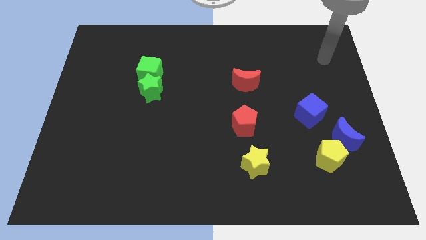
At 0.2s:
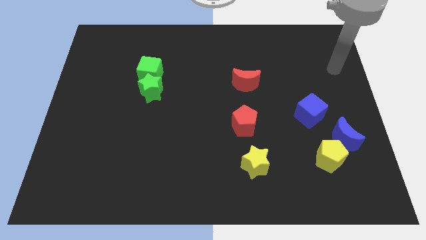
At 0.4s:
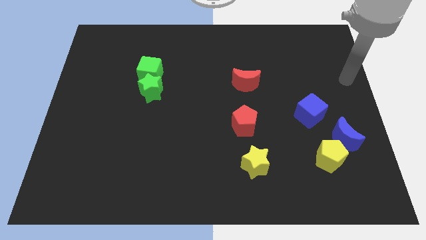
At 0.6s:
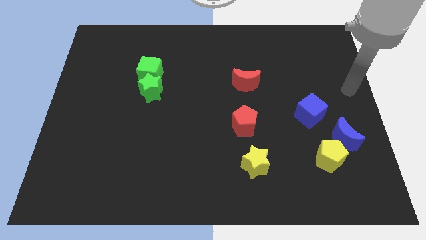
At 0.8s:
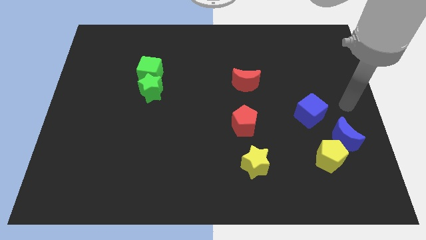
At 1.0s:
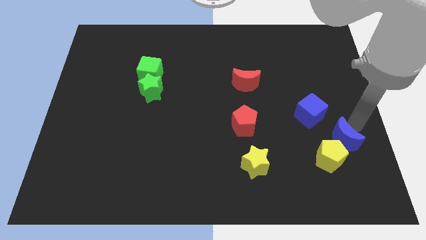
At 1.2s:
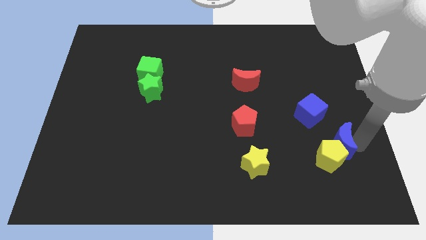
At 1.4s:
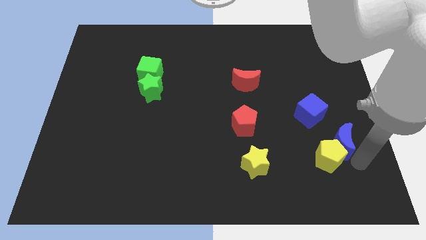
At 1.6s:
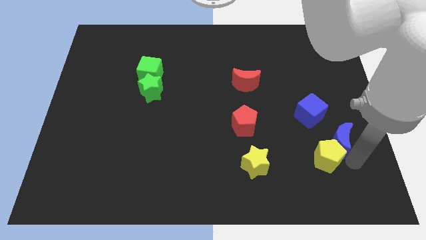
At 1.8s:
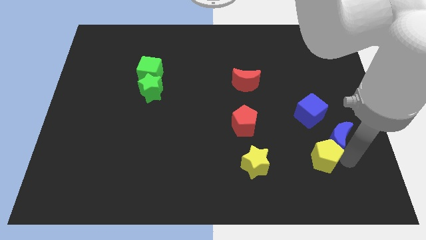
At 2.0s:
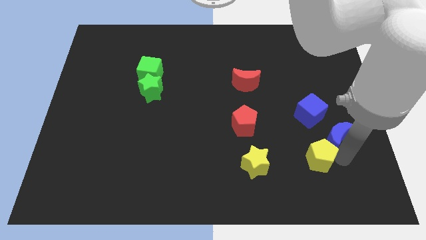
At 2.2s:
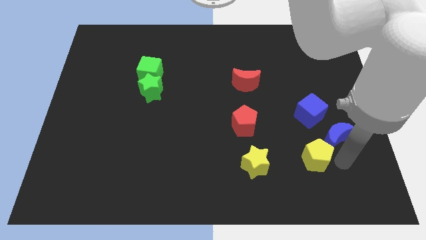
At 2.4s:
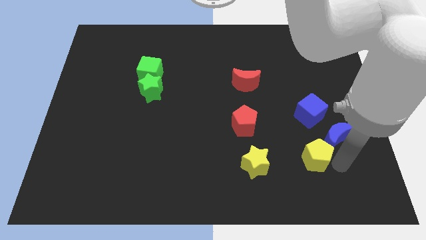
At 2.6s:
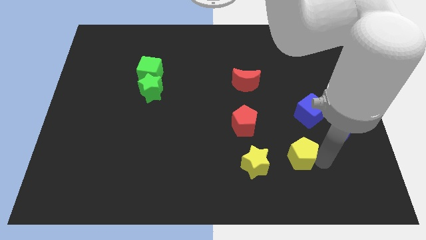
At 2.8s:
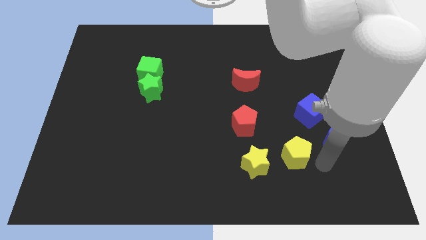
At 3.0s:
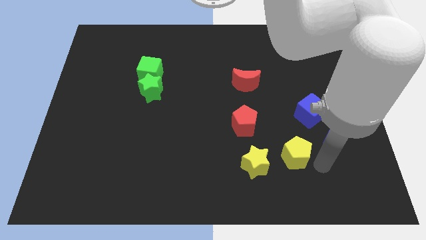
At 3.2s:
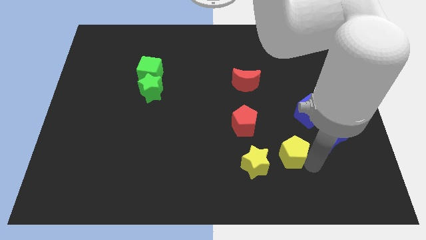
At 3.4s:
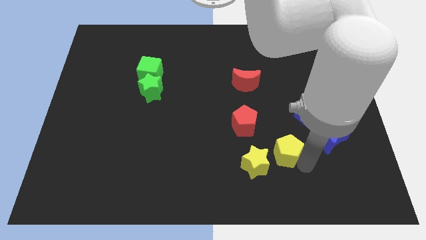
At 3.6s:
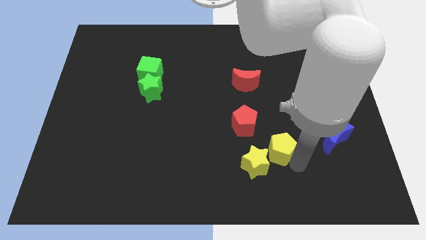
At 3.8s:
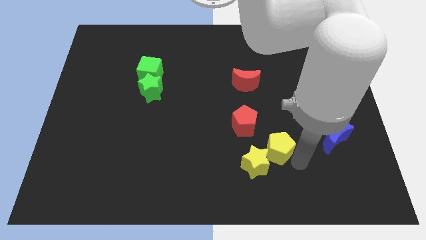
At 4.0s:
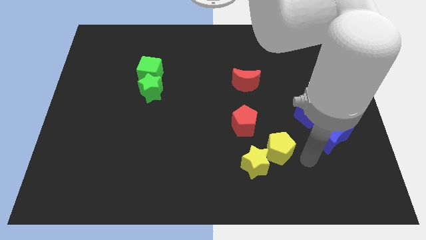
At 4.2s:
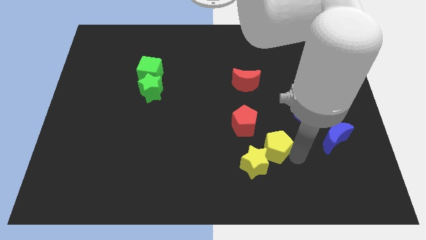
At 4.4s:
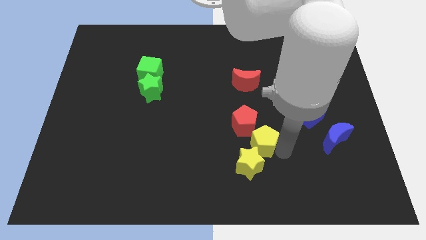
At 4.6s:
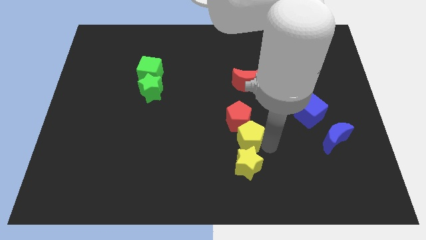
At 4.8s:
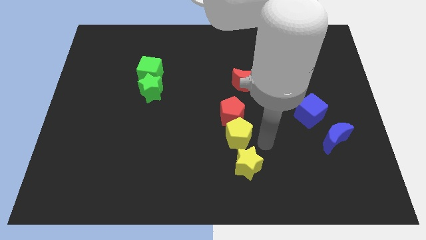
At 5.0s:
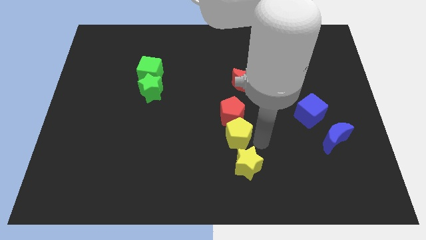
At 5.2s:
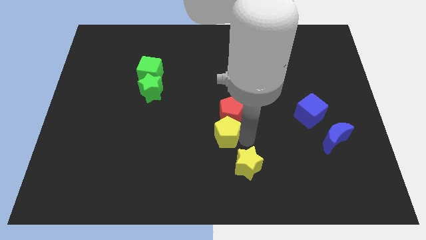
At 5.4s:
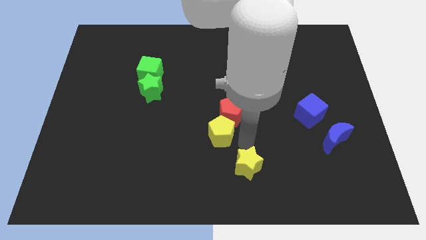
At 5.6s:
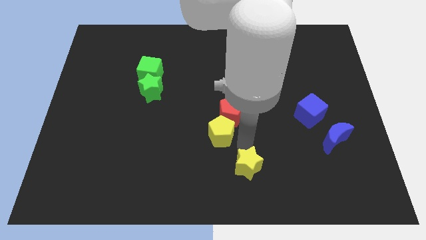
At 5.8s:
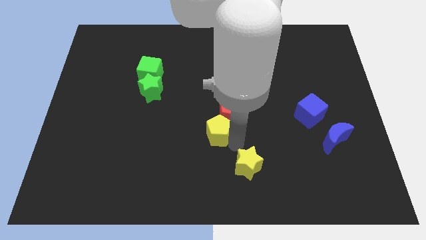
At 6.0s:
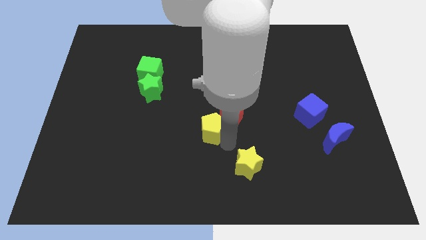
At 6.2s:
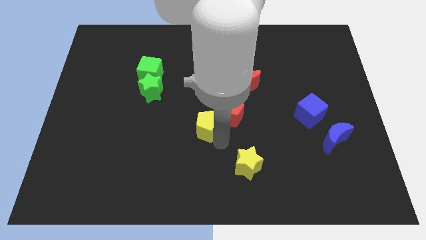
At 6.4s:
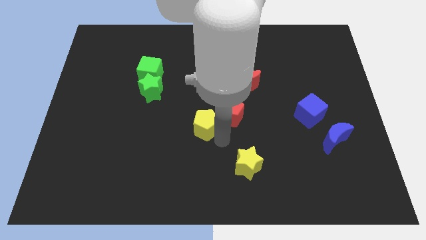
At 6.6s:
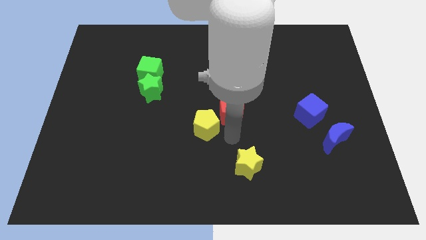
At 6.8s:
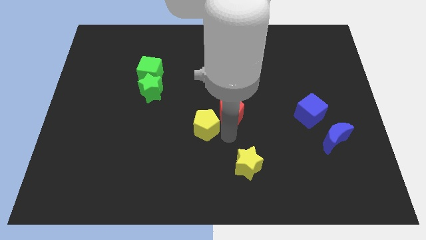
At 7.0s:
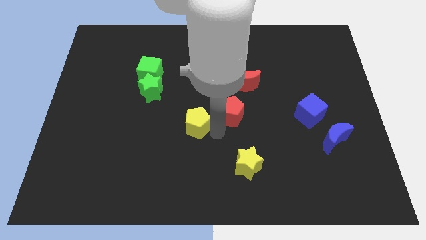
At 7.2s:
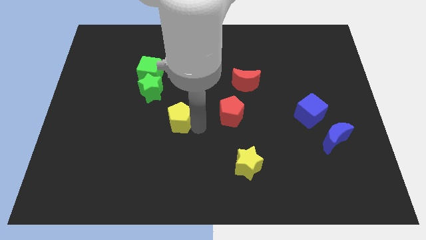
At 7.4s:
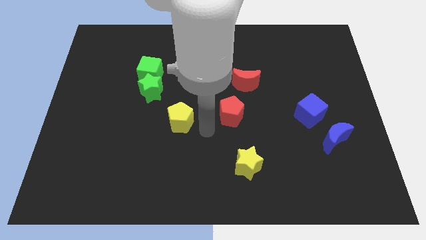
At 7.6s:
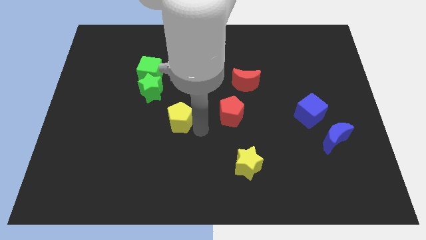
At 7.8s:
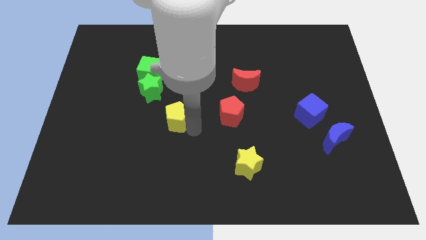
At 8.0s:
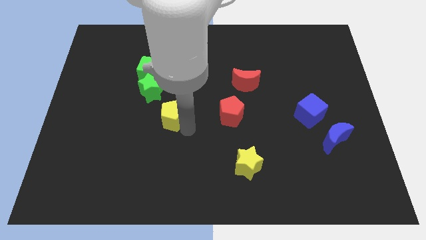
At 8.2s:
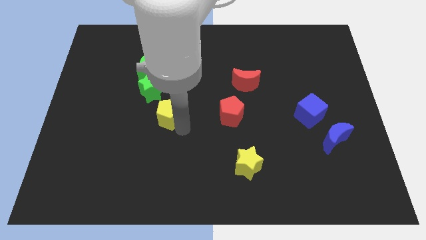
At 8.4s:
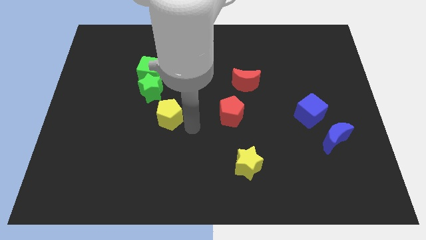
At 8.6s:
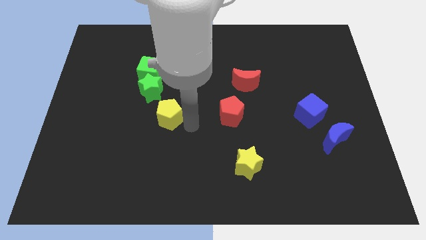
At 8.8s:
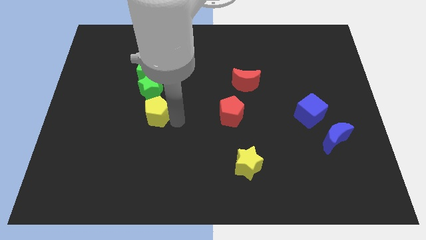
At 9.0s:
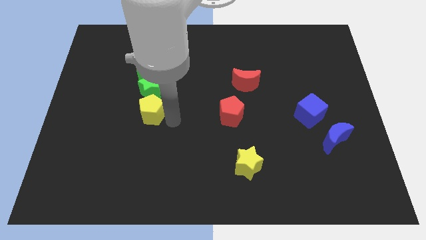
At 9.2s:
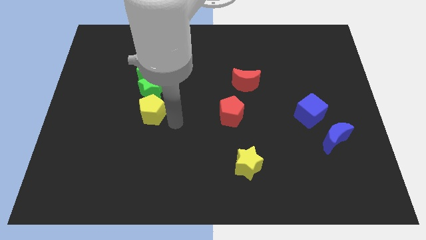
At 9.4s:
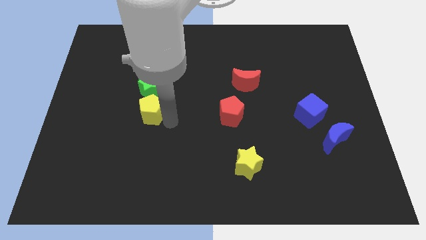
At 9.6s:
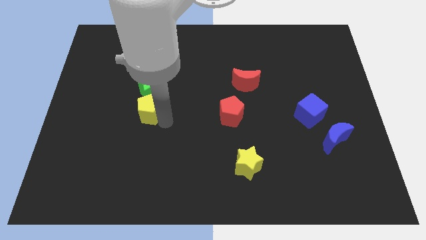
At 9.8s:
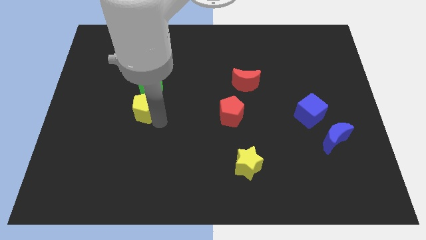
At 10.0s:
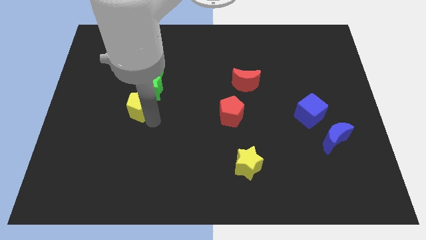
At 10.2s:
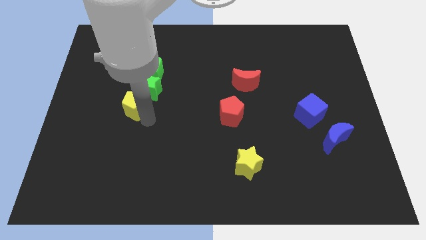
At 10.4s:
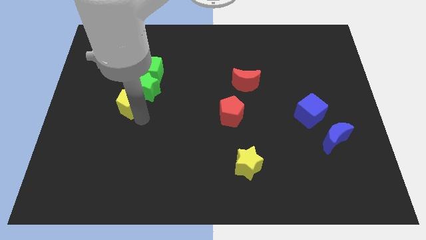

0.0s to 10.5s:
push the yellow pentagon to the left of the green star

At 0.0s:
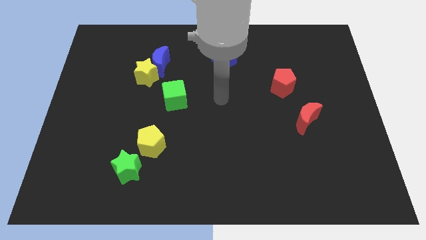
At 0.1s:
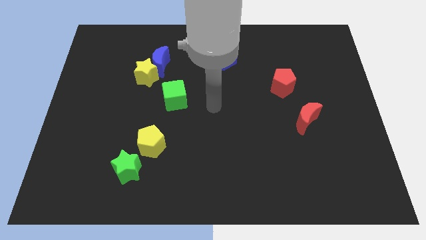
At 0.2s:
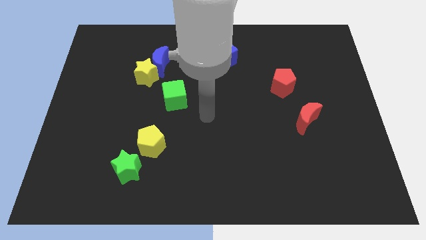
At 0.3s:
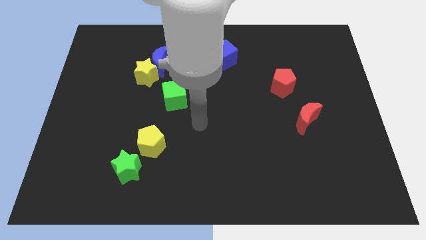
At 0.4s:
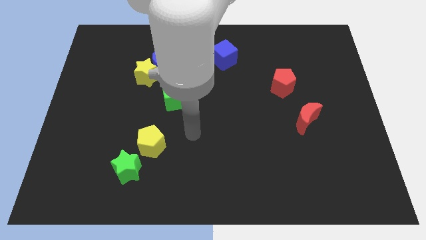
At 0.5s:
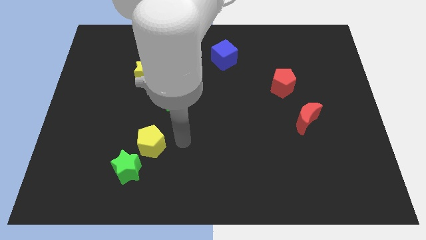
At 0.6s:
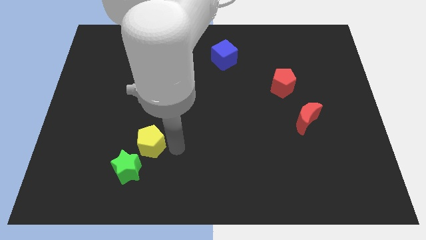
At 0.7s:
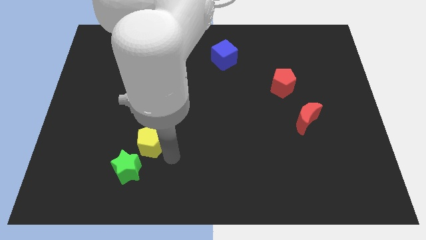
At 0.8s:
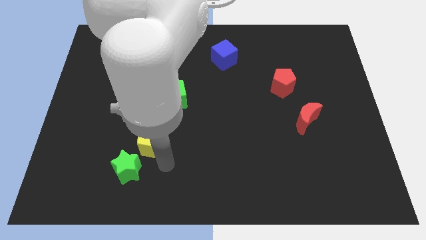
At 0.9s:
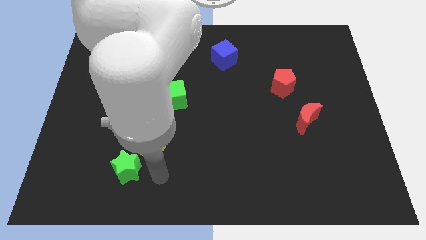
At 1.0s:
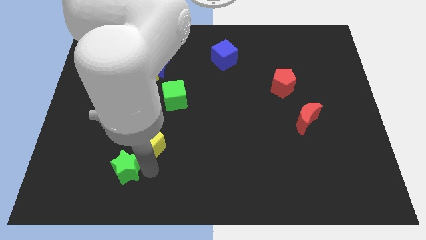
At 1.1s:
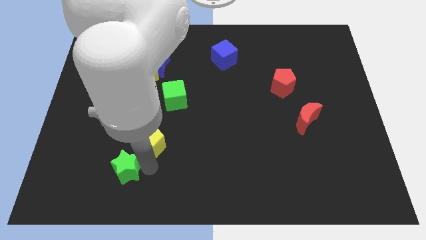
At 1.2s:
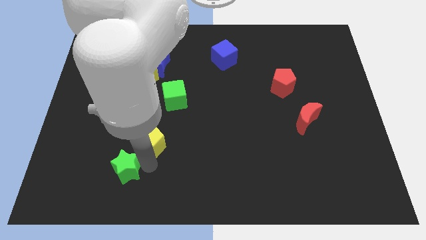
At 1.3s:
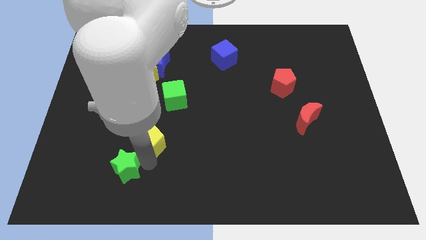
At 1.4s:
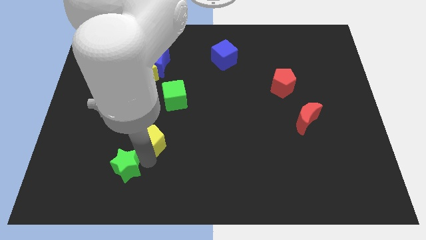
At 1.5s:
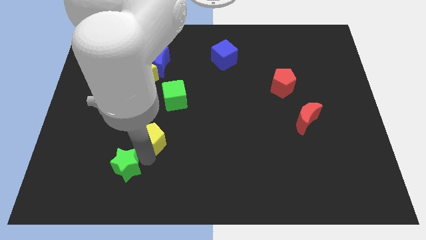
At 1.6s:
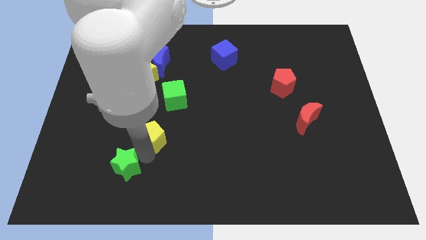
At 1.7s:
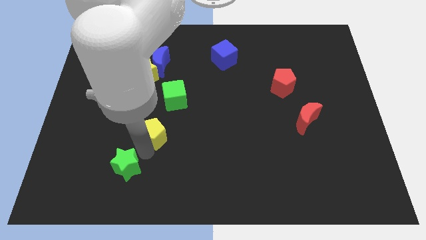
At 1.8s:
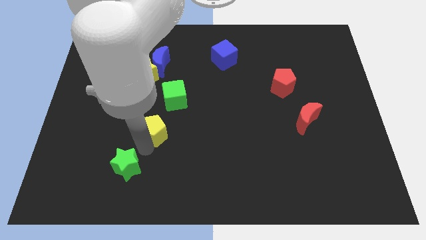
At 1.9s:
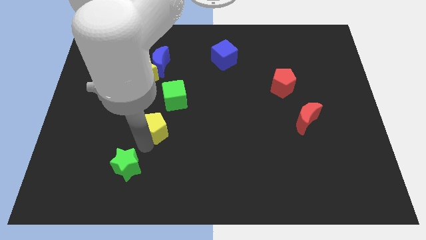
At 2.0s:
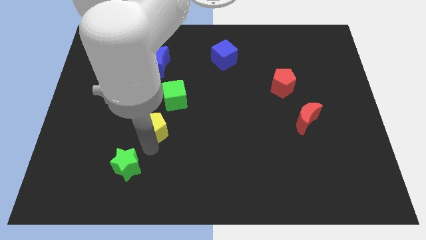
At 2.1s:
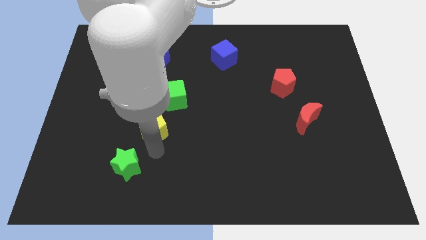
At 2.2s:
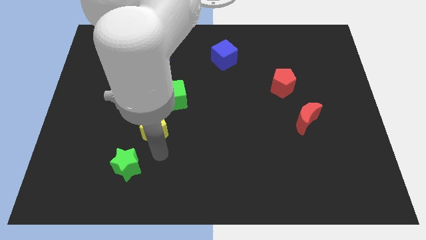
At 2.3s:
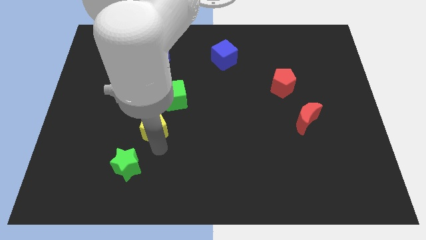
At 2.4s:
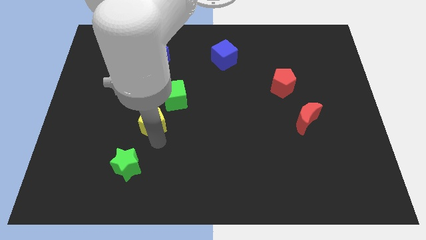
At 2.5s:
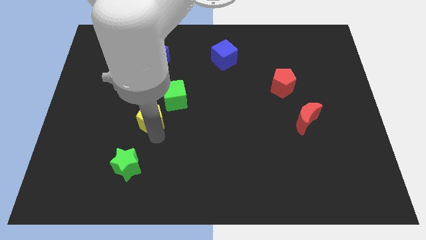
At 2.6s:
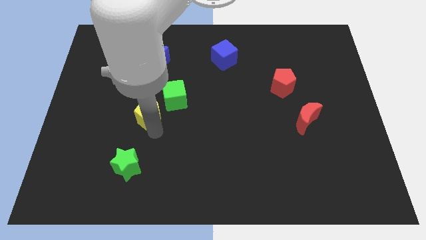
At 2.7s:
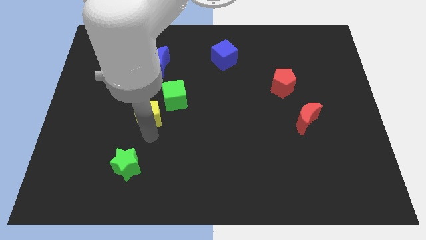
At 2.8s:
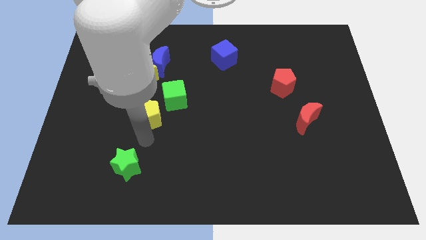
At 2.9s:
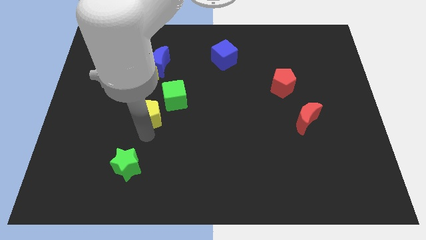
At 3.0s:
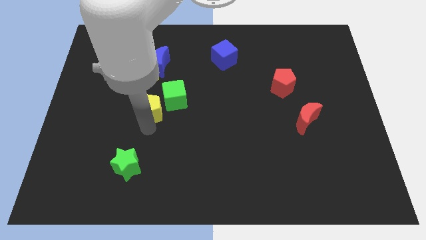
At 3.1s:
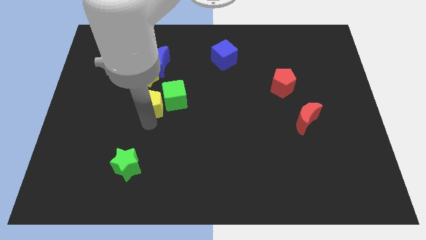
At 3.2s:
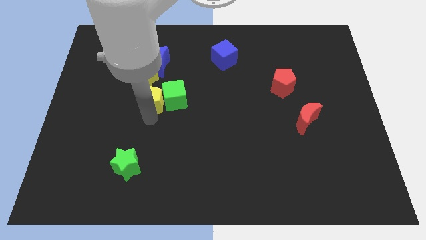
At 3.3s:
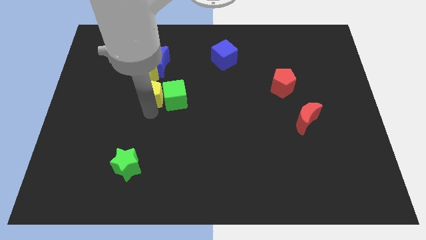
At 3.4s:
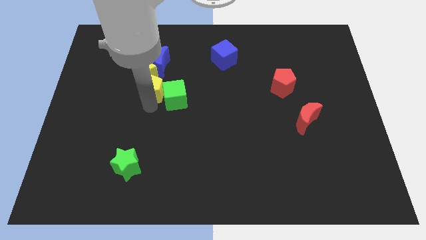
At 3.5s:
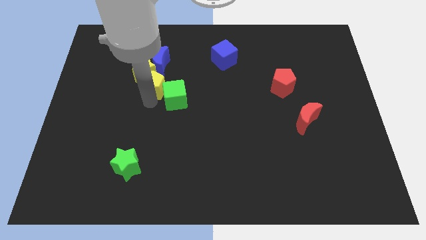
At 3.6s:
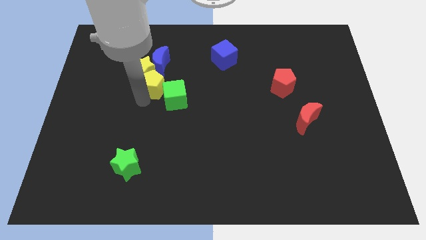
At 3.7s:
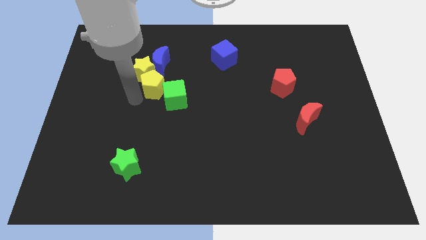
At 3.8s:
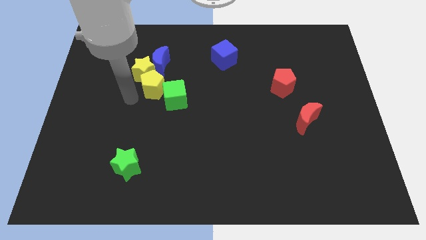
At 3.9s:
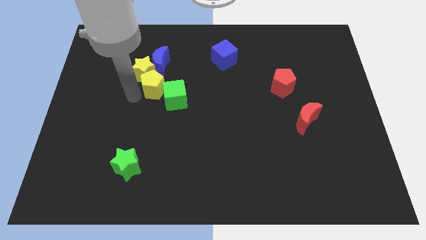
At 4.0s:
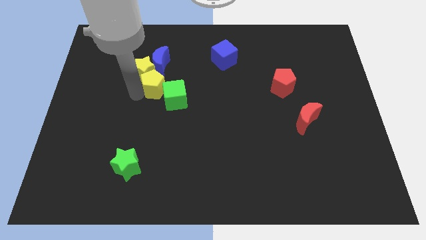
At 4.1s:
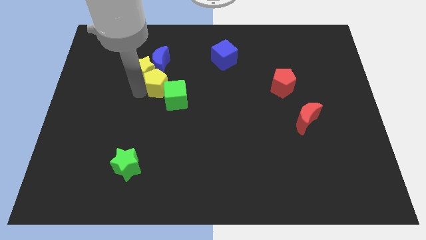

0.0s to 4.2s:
move the yellow pentagon right of the yellow star
